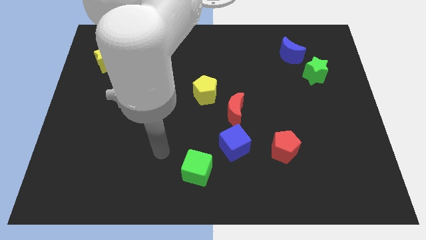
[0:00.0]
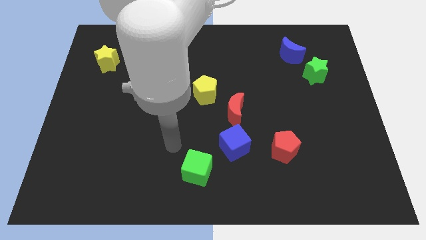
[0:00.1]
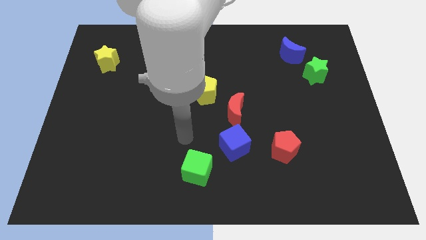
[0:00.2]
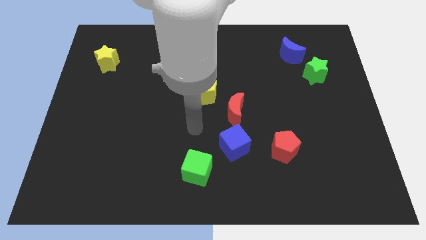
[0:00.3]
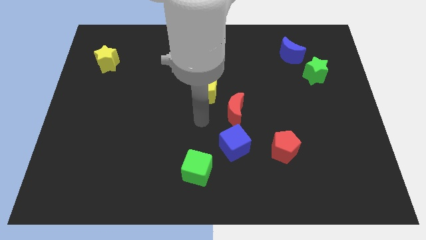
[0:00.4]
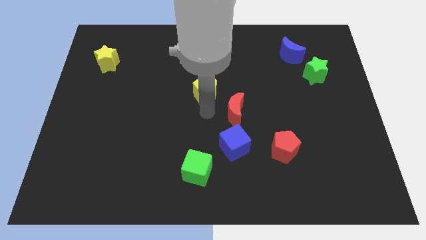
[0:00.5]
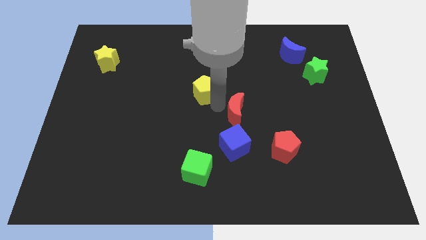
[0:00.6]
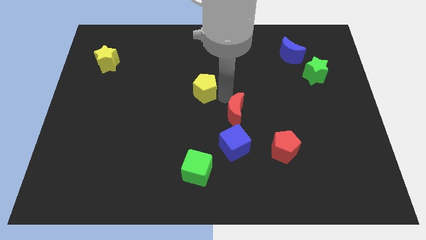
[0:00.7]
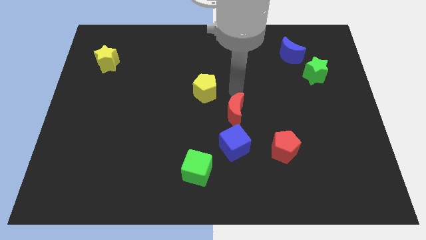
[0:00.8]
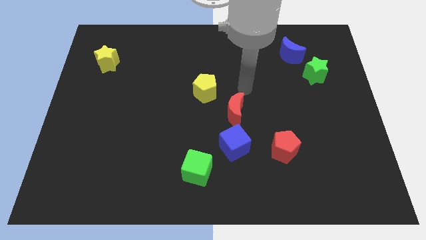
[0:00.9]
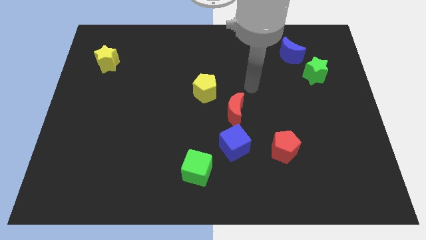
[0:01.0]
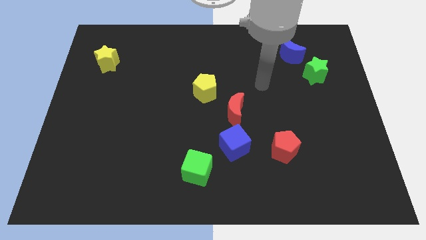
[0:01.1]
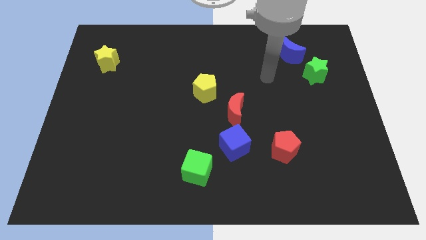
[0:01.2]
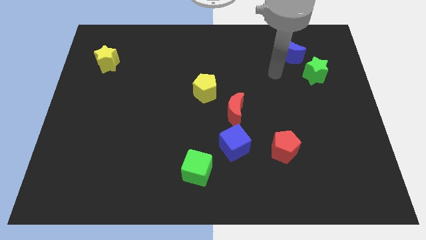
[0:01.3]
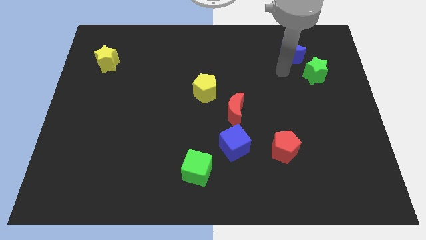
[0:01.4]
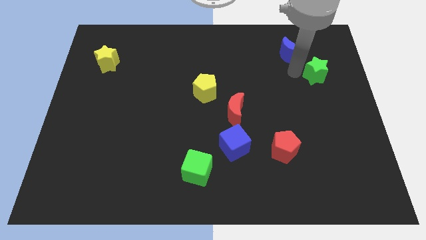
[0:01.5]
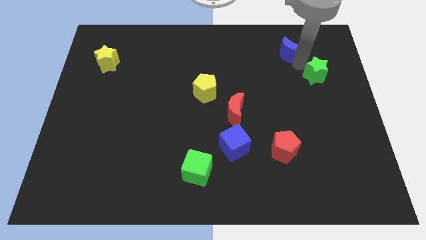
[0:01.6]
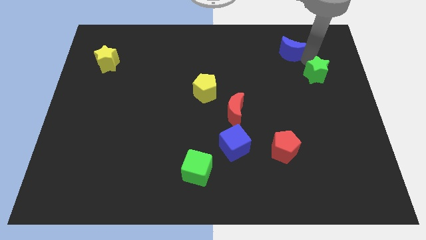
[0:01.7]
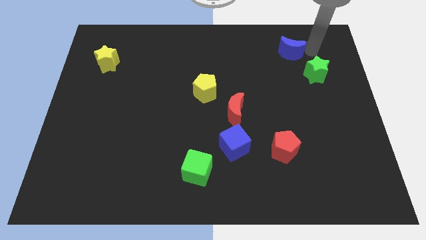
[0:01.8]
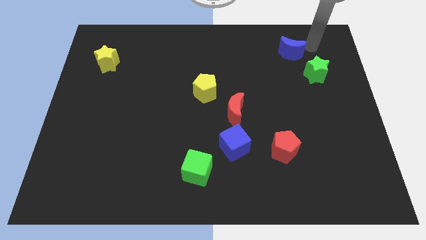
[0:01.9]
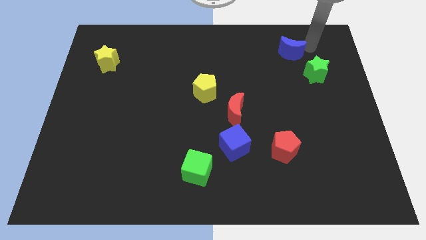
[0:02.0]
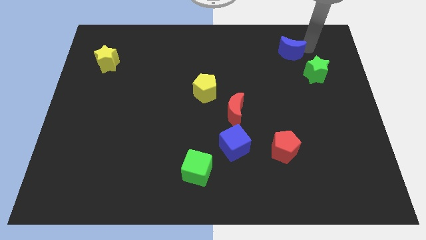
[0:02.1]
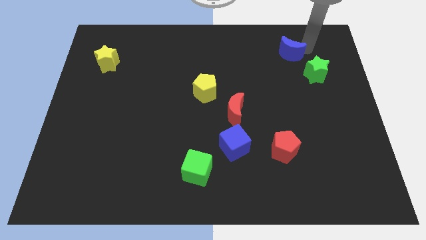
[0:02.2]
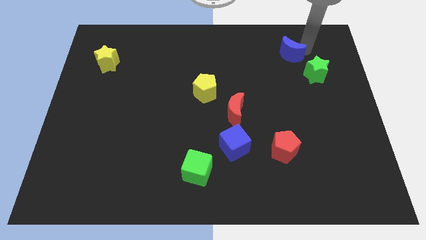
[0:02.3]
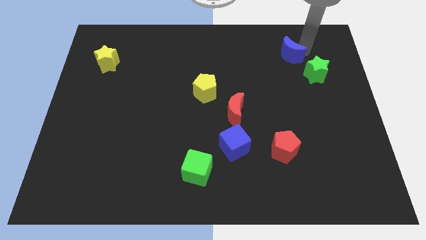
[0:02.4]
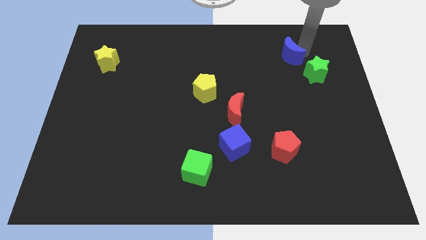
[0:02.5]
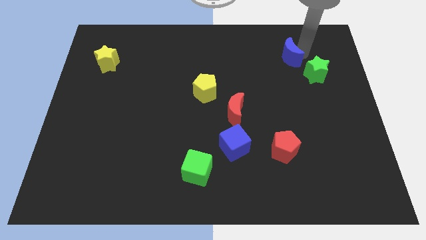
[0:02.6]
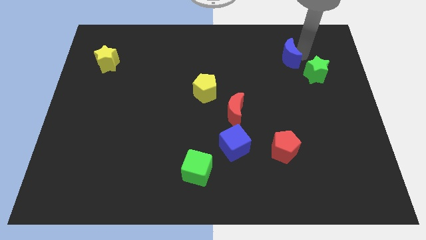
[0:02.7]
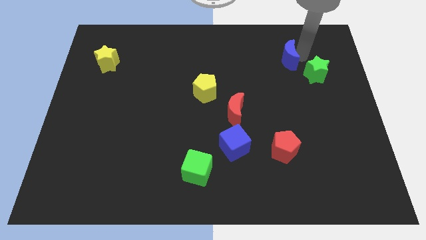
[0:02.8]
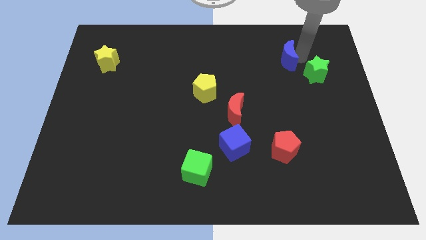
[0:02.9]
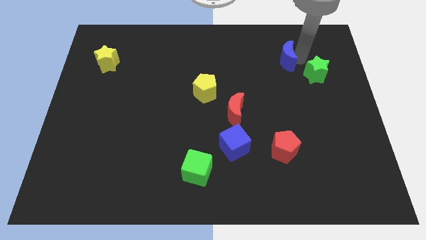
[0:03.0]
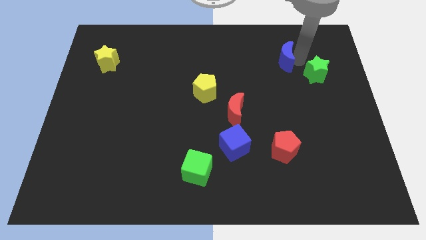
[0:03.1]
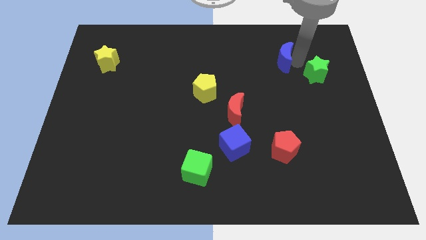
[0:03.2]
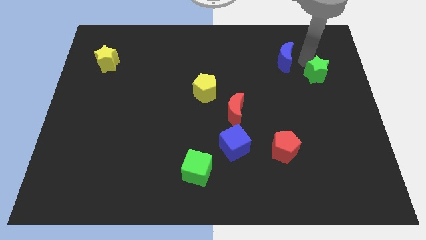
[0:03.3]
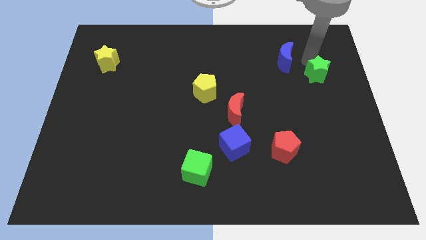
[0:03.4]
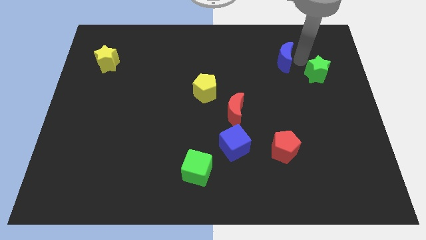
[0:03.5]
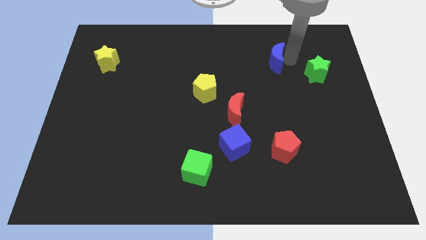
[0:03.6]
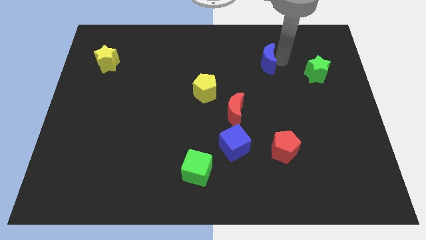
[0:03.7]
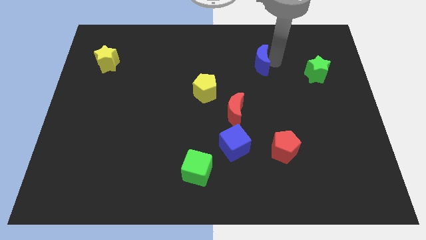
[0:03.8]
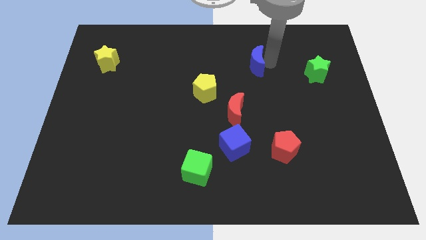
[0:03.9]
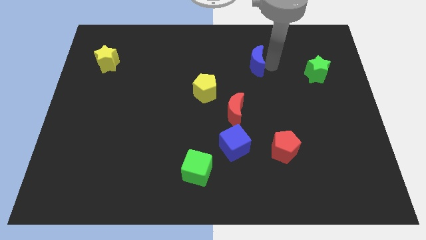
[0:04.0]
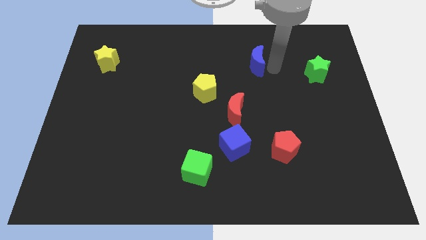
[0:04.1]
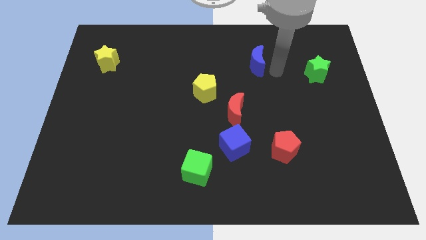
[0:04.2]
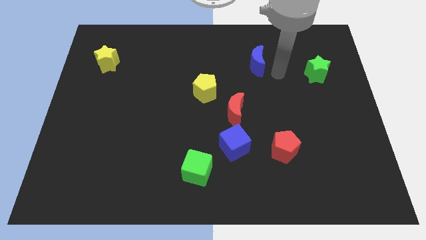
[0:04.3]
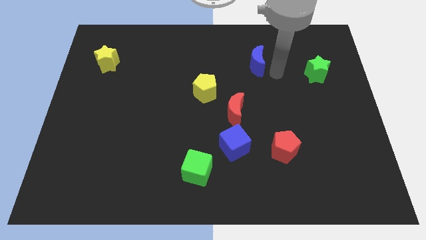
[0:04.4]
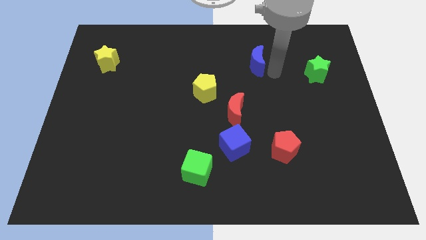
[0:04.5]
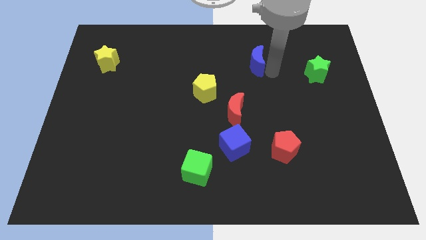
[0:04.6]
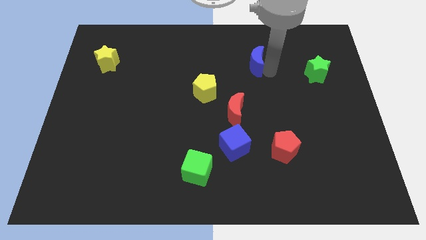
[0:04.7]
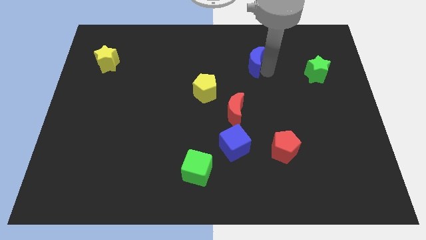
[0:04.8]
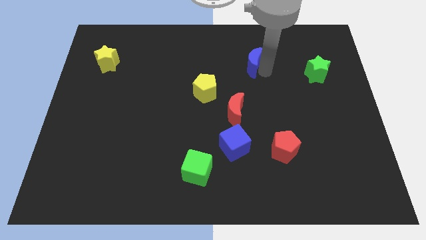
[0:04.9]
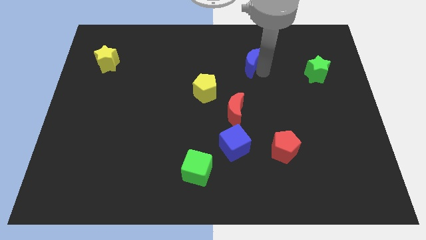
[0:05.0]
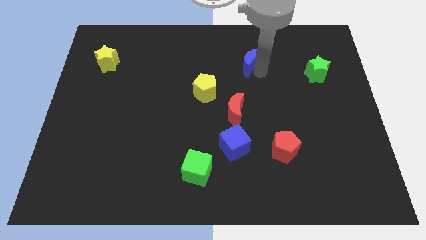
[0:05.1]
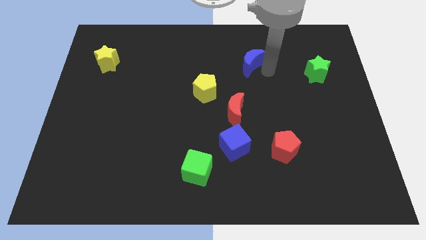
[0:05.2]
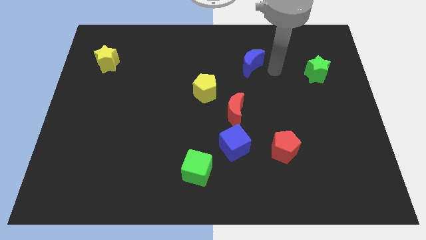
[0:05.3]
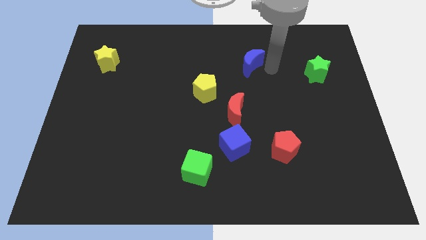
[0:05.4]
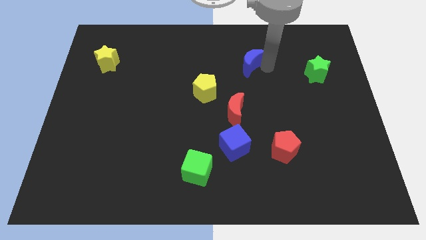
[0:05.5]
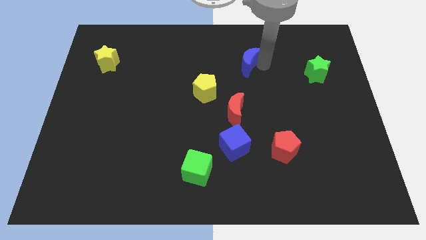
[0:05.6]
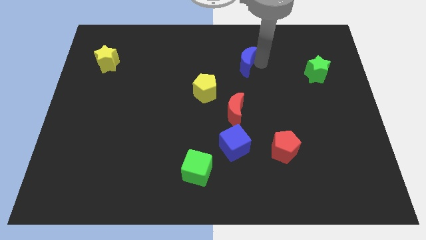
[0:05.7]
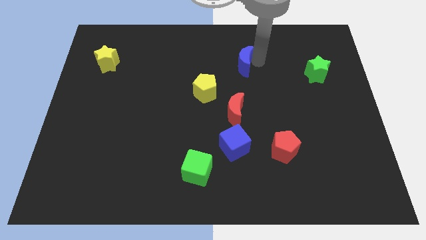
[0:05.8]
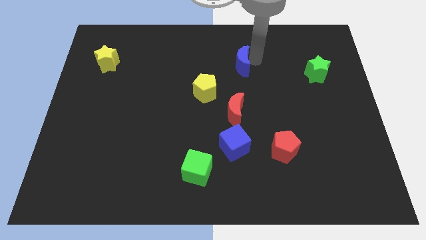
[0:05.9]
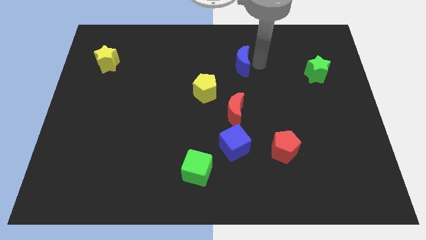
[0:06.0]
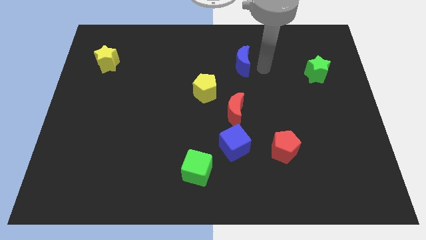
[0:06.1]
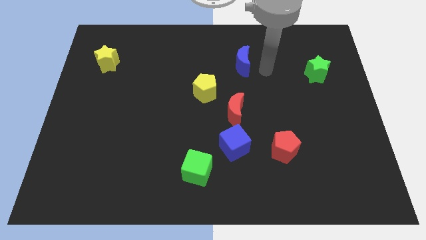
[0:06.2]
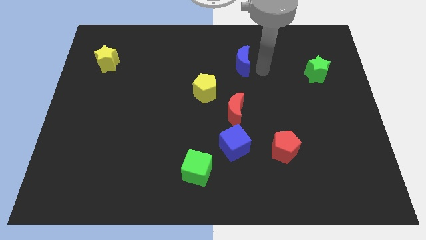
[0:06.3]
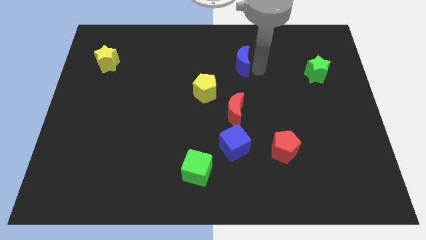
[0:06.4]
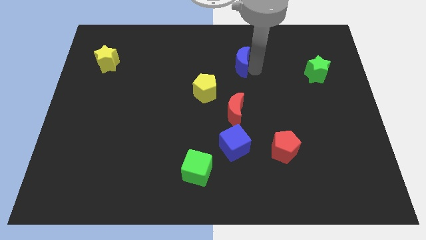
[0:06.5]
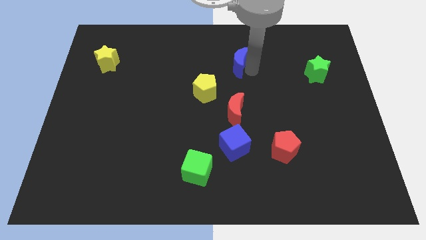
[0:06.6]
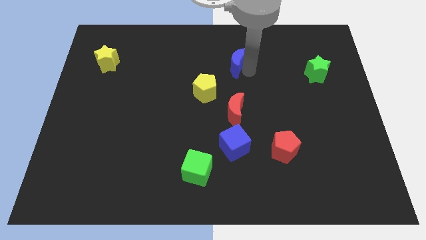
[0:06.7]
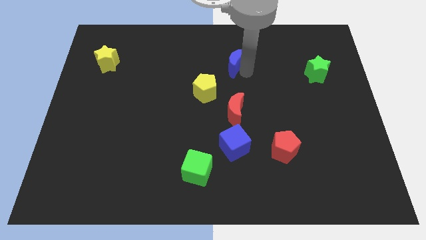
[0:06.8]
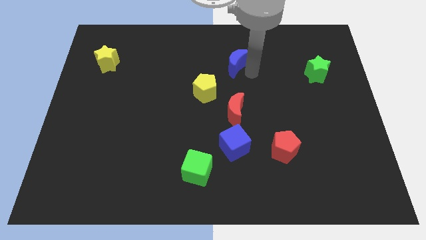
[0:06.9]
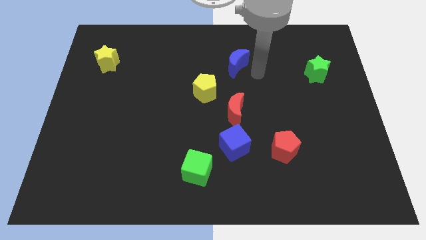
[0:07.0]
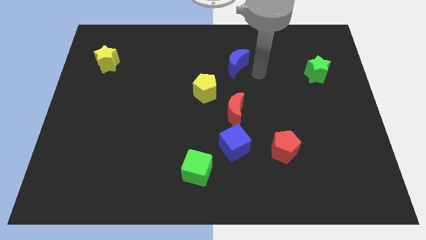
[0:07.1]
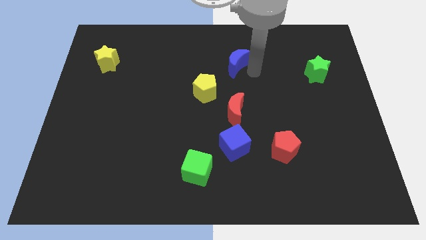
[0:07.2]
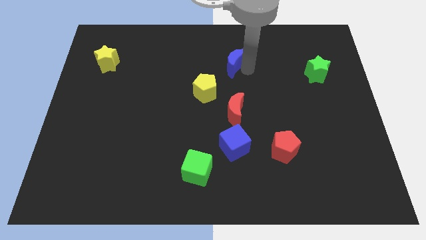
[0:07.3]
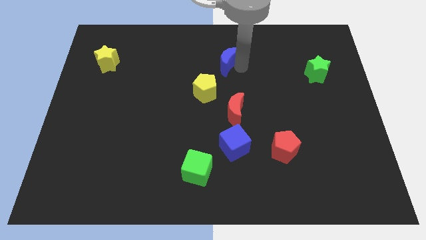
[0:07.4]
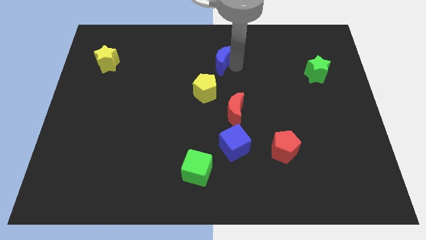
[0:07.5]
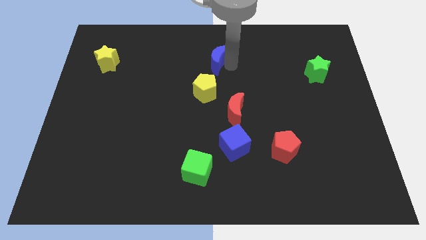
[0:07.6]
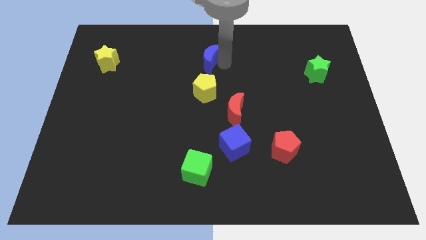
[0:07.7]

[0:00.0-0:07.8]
slide the blue moon left
